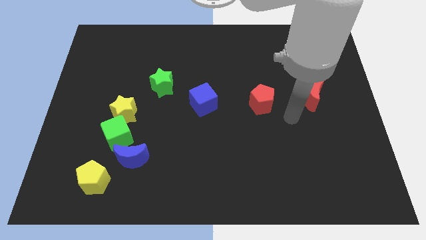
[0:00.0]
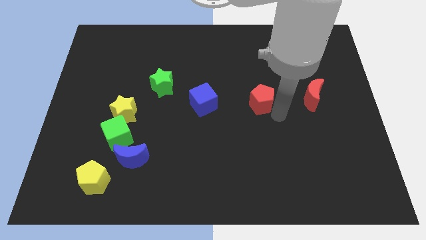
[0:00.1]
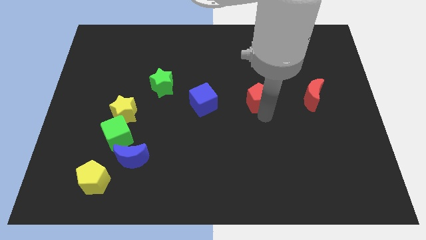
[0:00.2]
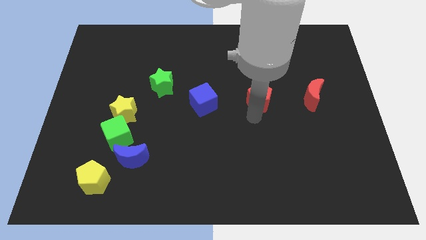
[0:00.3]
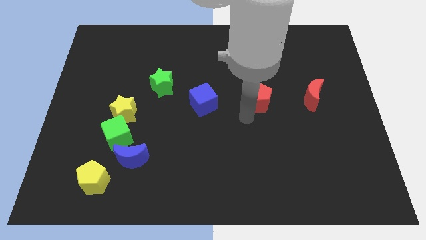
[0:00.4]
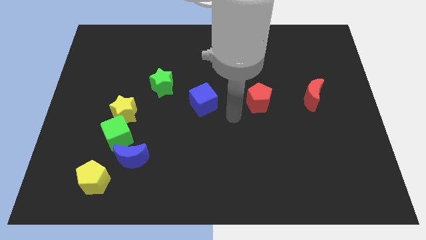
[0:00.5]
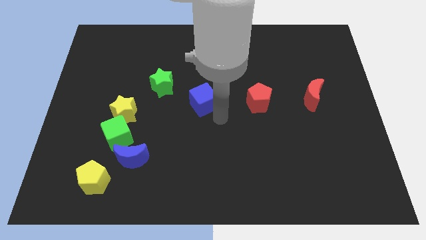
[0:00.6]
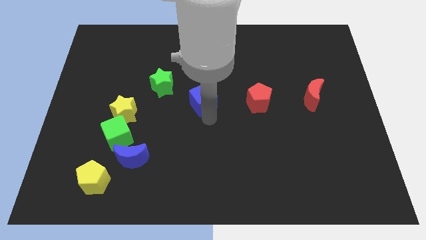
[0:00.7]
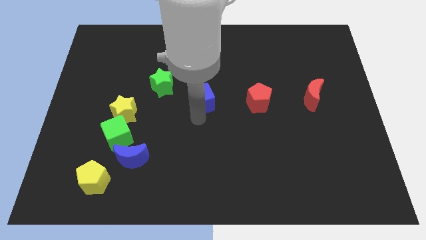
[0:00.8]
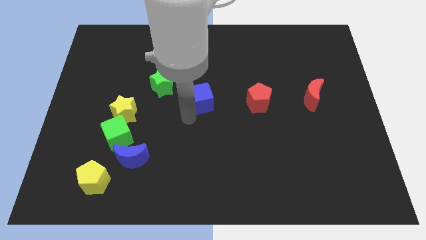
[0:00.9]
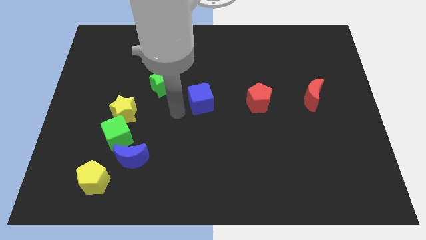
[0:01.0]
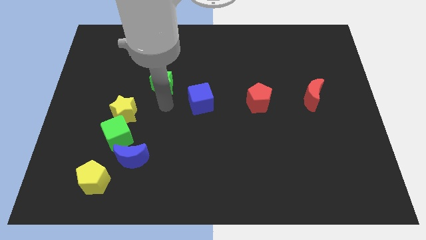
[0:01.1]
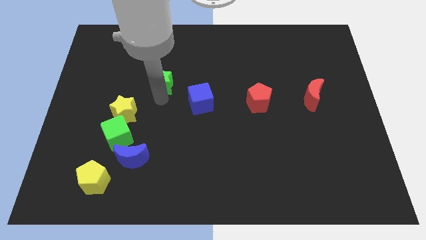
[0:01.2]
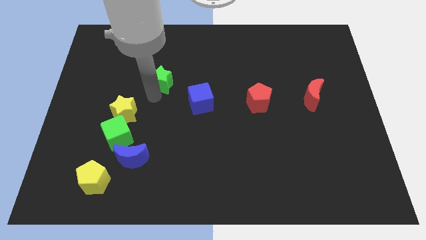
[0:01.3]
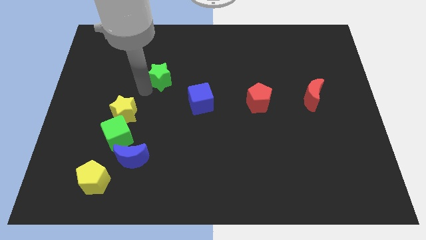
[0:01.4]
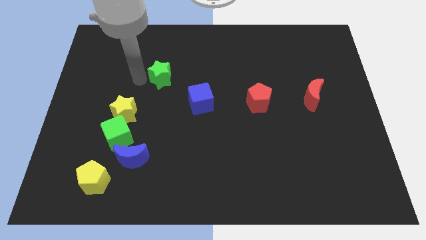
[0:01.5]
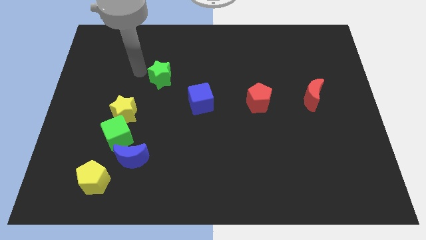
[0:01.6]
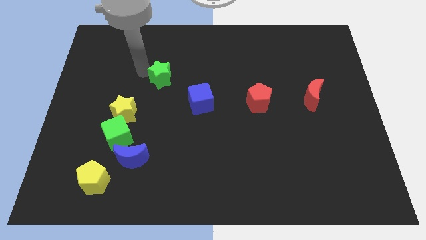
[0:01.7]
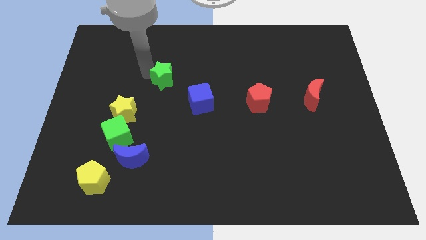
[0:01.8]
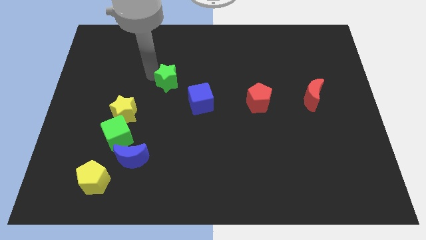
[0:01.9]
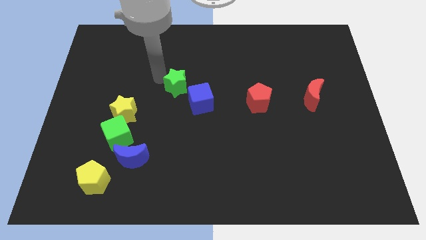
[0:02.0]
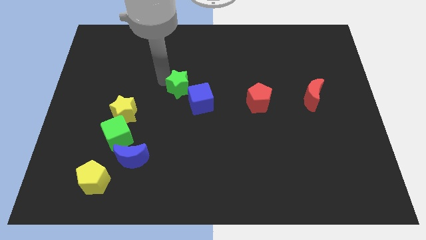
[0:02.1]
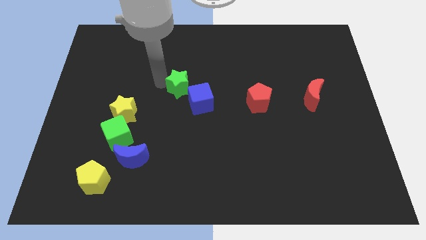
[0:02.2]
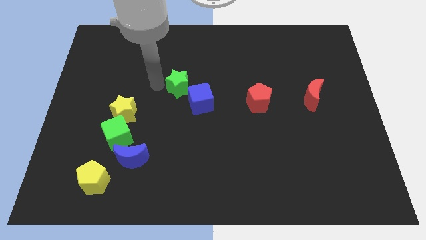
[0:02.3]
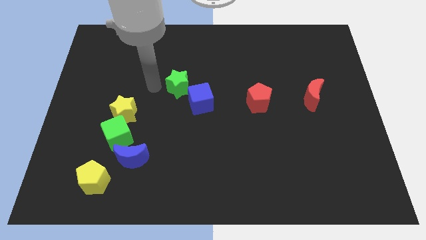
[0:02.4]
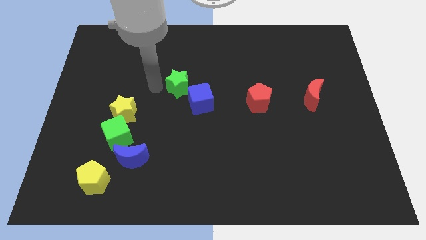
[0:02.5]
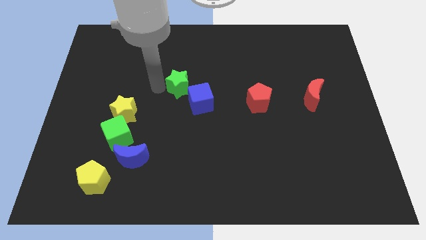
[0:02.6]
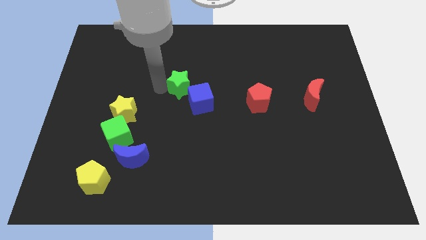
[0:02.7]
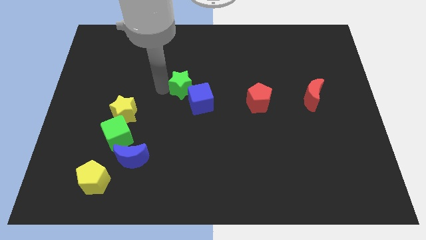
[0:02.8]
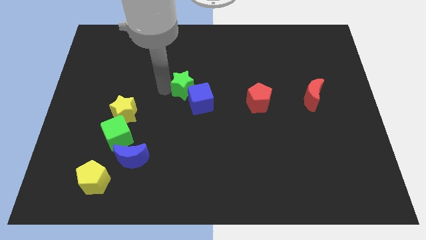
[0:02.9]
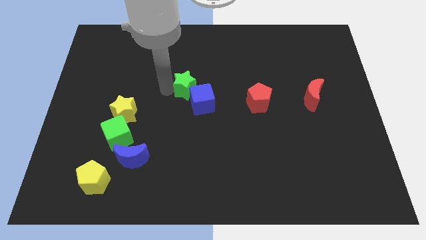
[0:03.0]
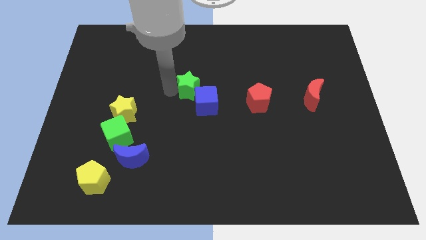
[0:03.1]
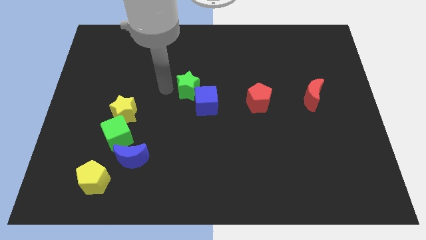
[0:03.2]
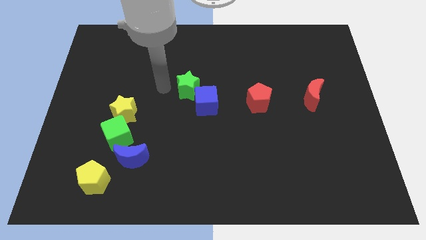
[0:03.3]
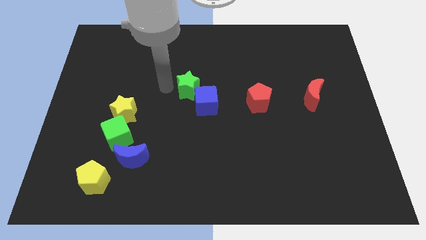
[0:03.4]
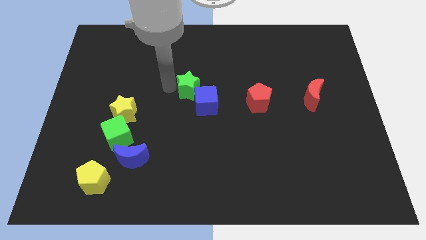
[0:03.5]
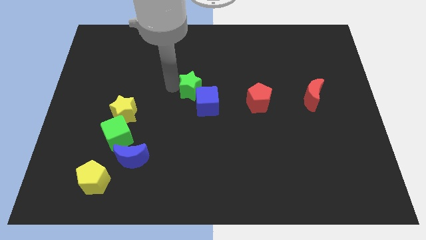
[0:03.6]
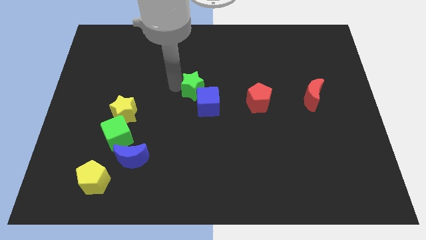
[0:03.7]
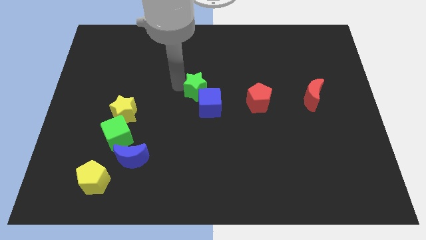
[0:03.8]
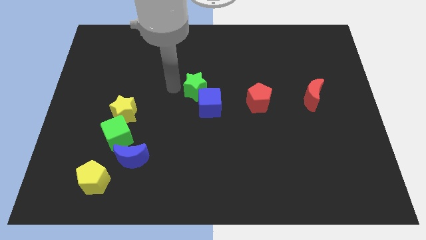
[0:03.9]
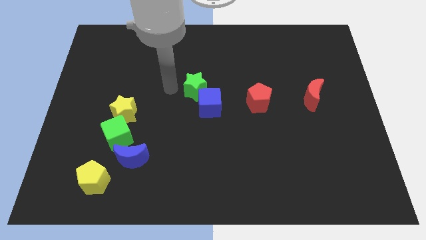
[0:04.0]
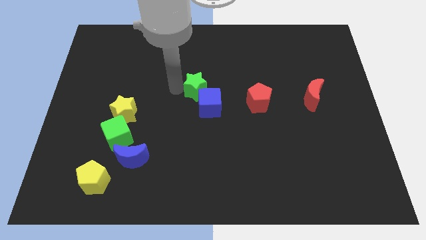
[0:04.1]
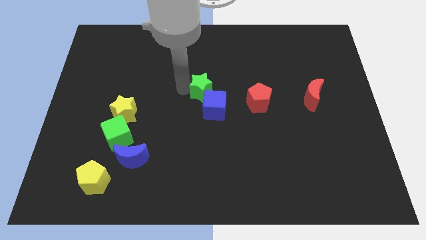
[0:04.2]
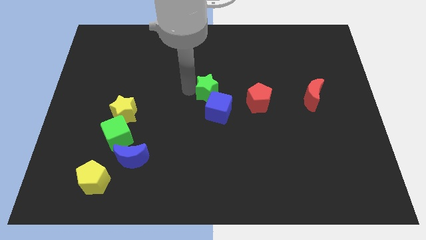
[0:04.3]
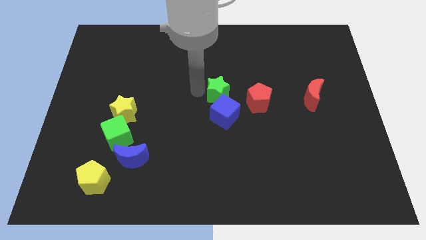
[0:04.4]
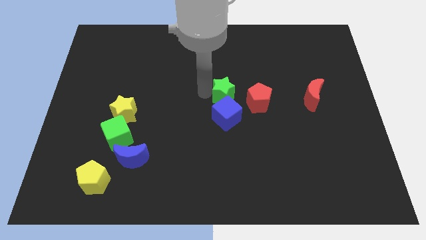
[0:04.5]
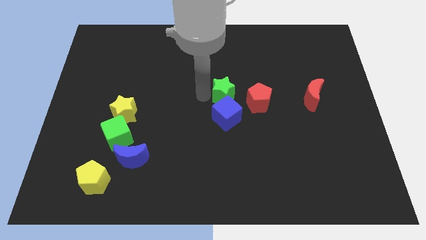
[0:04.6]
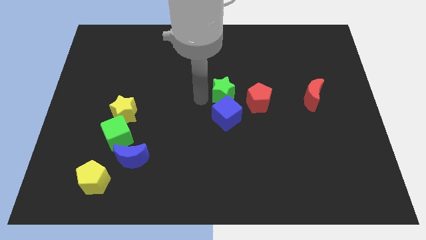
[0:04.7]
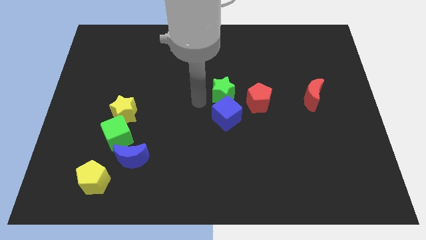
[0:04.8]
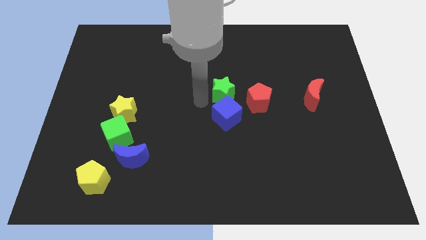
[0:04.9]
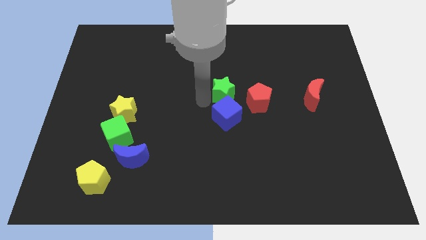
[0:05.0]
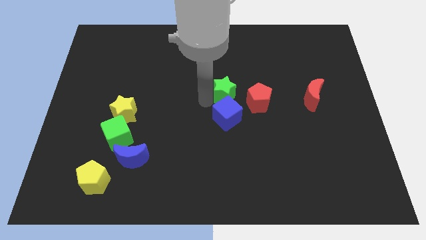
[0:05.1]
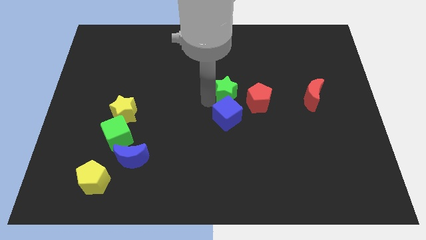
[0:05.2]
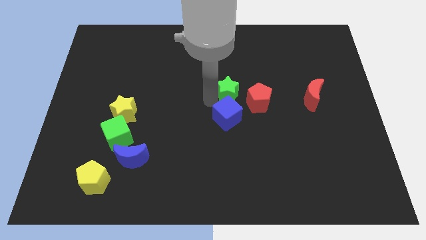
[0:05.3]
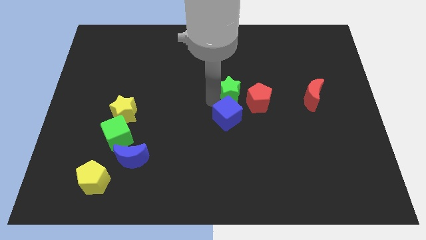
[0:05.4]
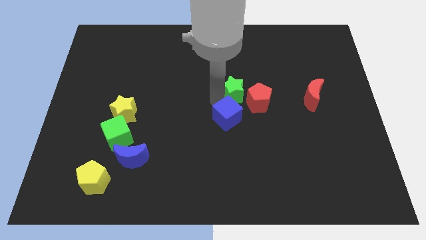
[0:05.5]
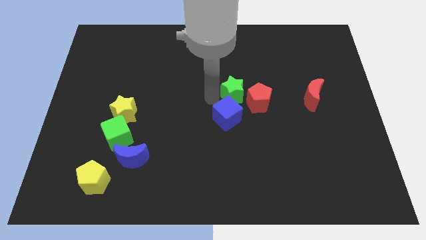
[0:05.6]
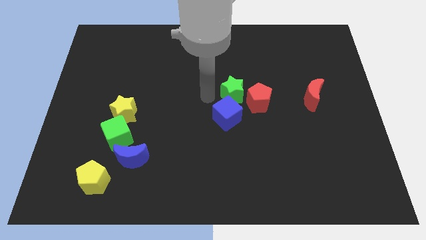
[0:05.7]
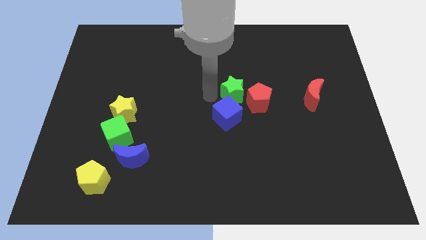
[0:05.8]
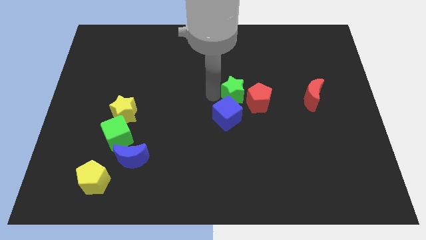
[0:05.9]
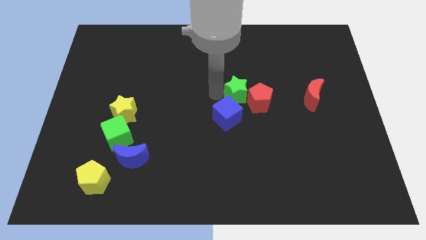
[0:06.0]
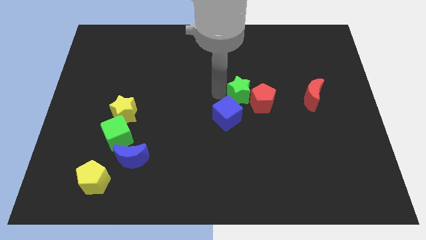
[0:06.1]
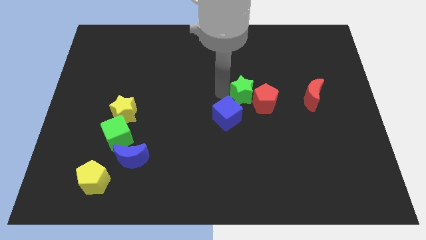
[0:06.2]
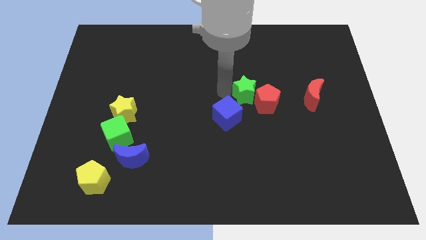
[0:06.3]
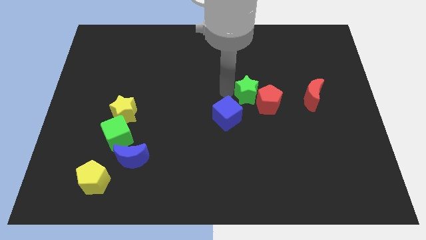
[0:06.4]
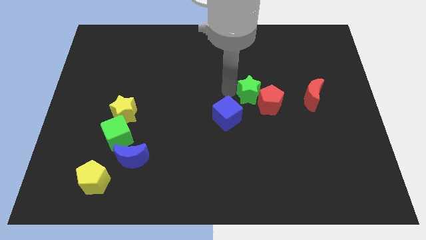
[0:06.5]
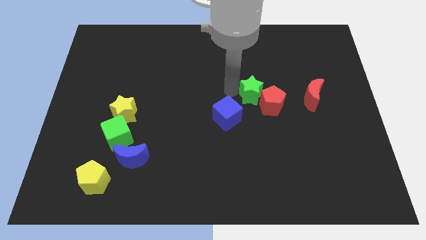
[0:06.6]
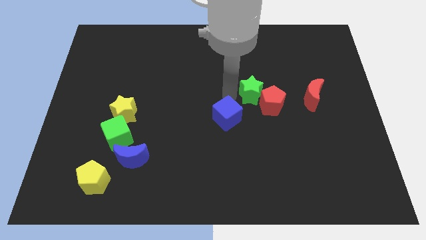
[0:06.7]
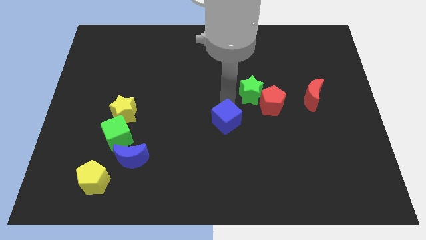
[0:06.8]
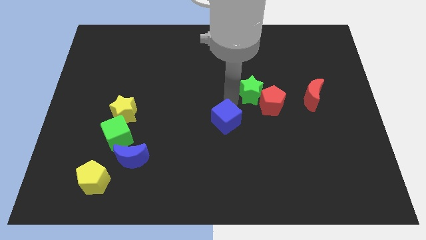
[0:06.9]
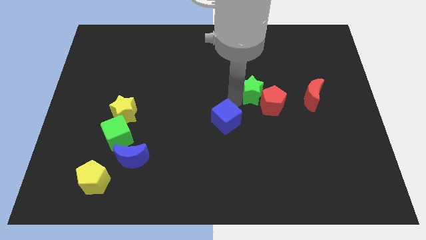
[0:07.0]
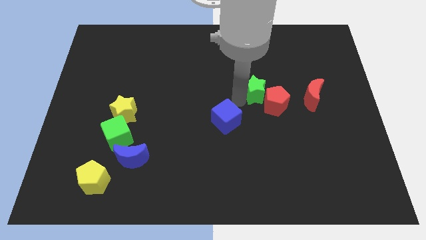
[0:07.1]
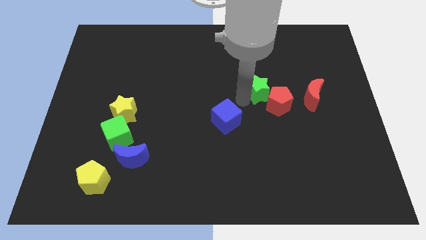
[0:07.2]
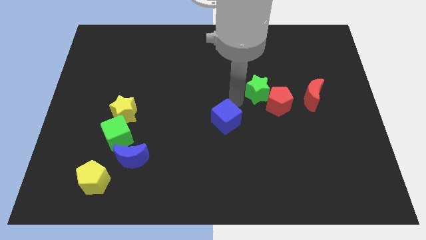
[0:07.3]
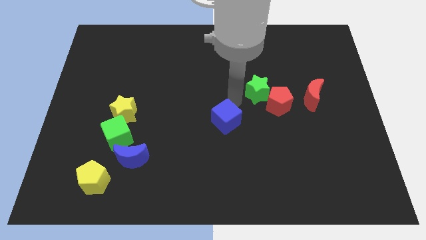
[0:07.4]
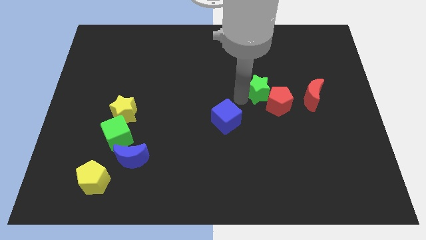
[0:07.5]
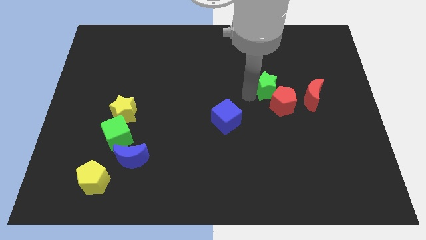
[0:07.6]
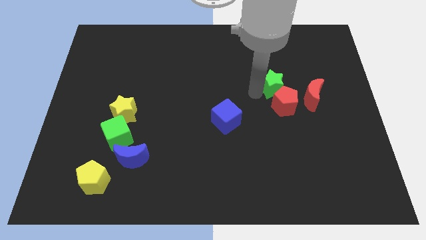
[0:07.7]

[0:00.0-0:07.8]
put the green star diagonally up and to the left of the red moon

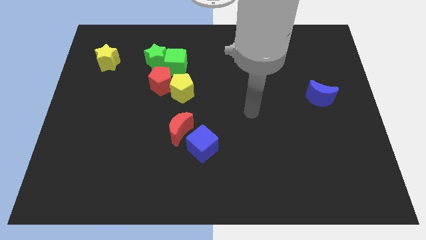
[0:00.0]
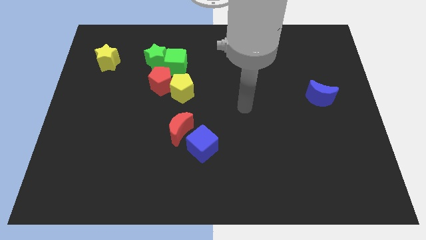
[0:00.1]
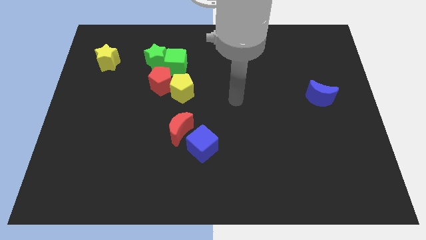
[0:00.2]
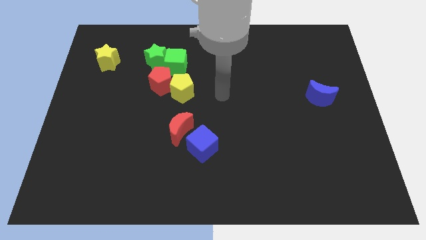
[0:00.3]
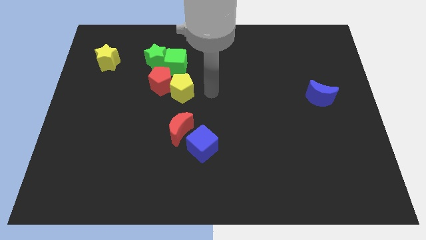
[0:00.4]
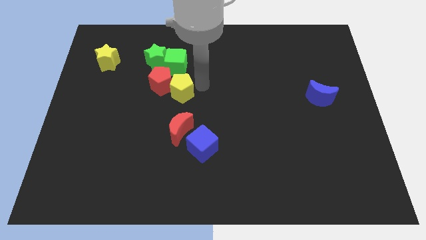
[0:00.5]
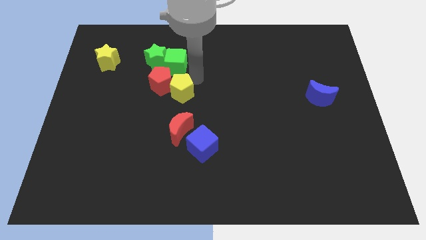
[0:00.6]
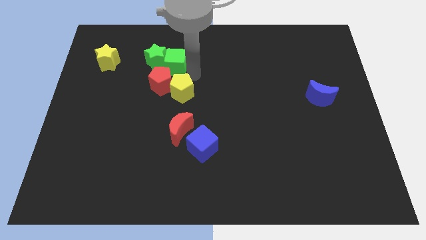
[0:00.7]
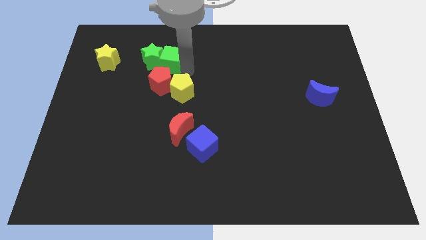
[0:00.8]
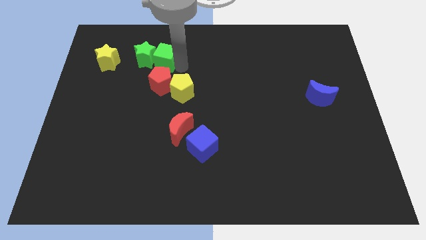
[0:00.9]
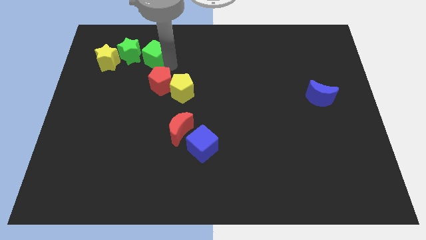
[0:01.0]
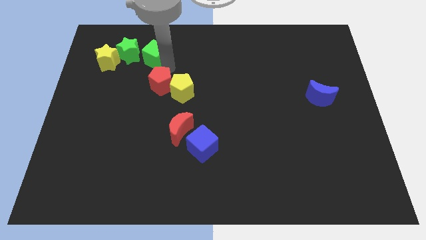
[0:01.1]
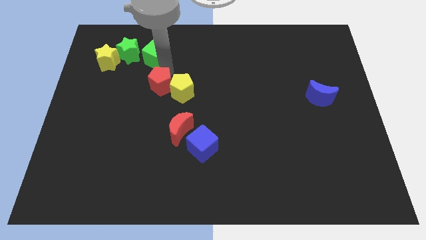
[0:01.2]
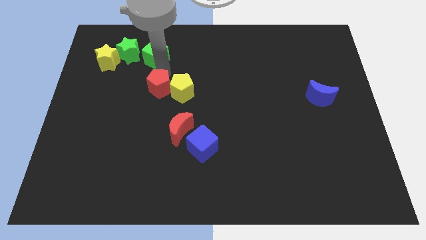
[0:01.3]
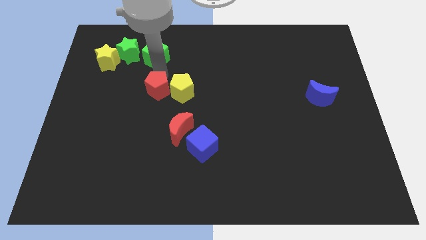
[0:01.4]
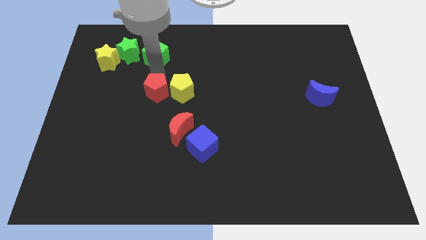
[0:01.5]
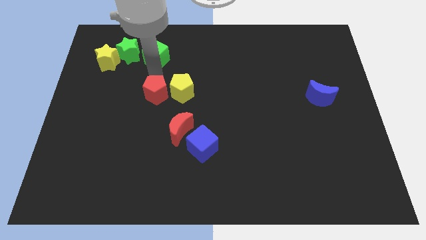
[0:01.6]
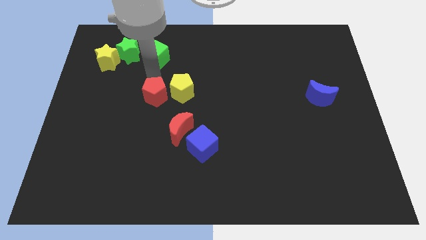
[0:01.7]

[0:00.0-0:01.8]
push the red pentagon to the top left side of the red moon
